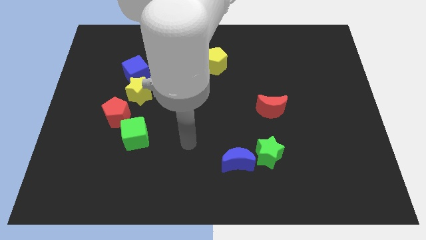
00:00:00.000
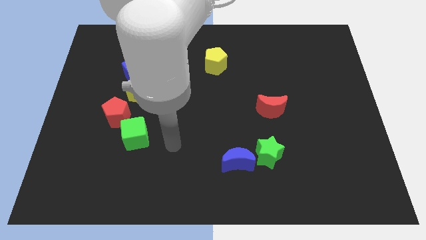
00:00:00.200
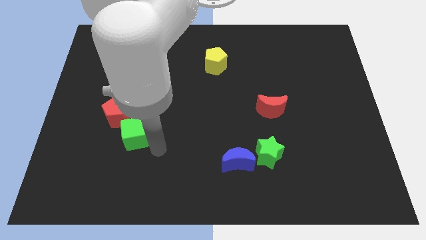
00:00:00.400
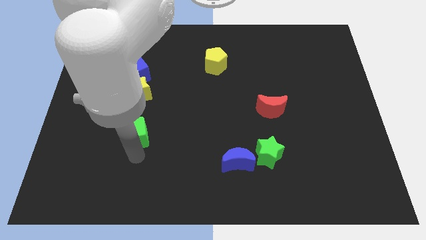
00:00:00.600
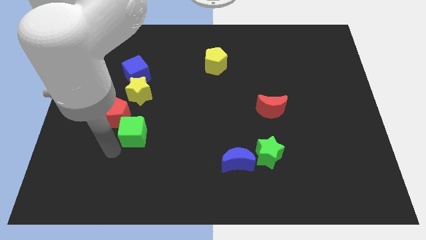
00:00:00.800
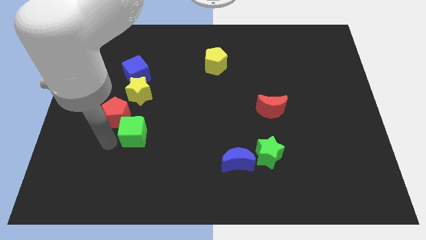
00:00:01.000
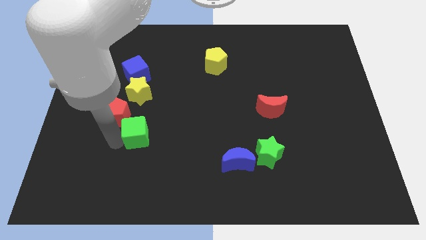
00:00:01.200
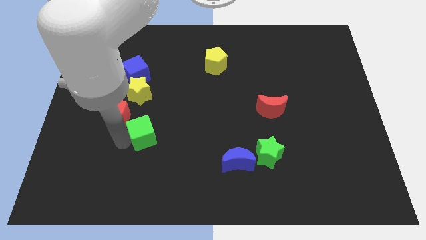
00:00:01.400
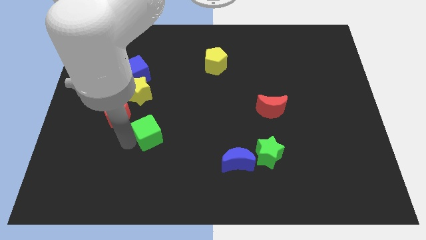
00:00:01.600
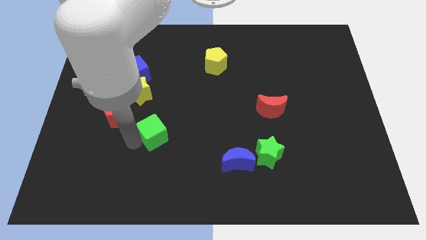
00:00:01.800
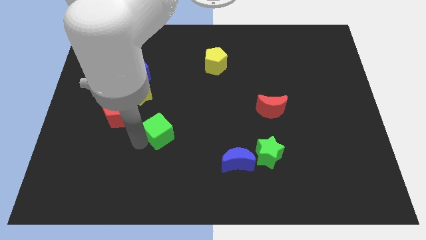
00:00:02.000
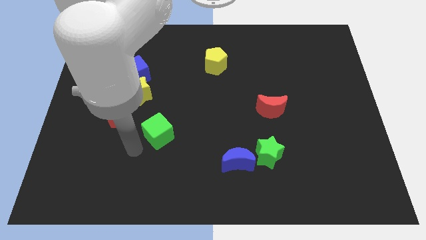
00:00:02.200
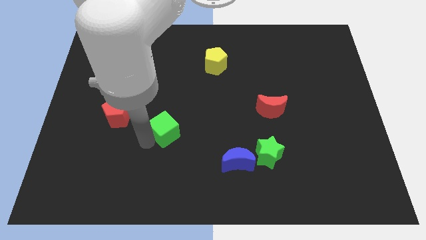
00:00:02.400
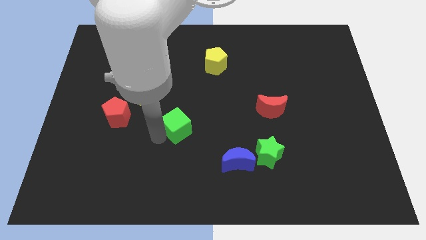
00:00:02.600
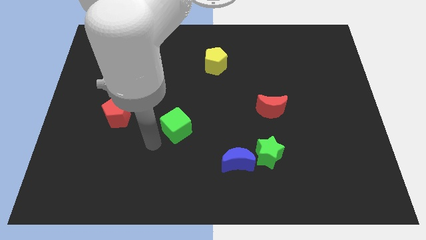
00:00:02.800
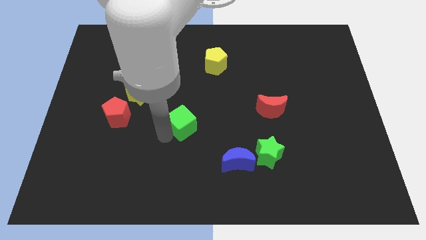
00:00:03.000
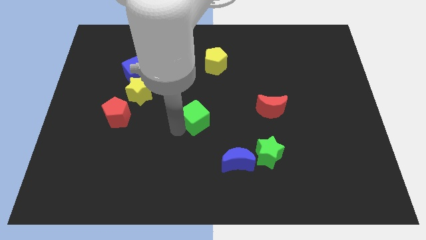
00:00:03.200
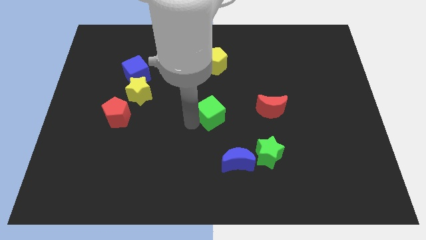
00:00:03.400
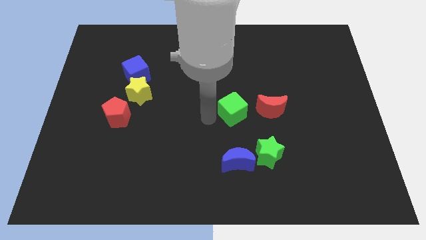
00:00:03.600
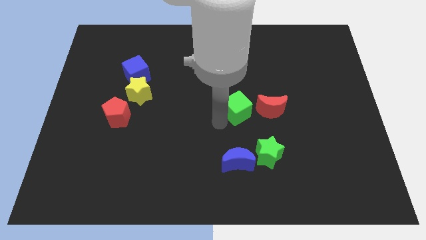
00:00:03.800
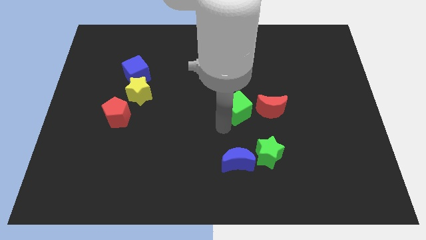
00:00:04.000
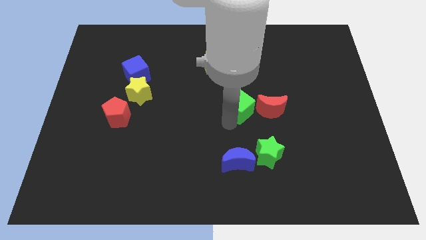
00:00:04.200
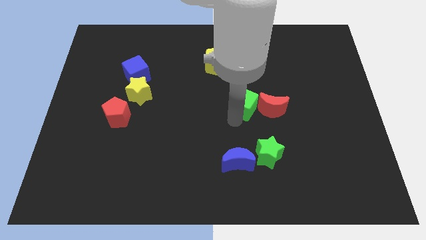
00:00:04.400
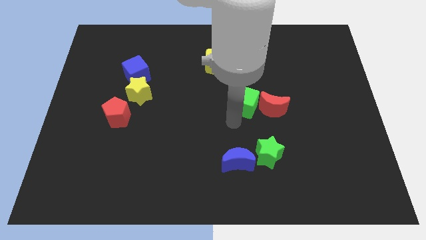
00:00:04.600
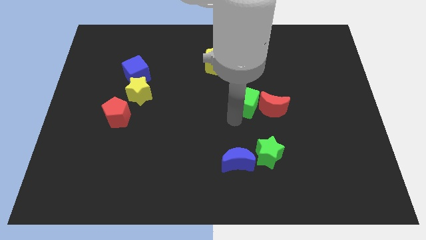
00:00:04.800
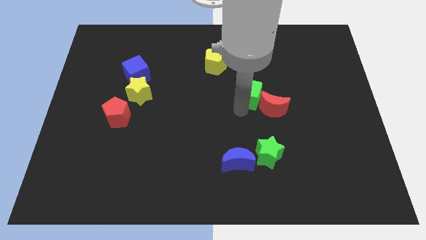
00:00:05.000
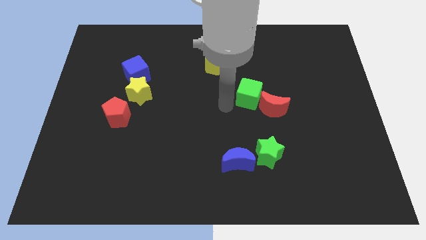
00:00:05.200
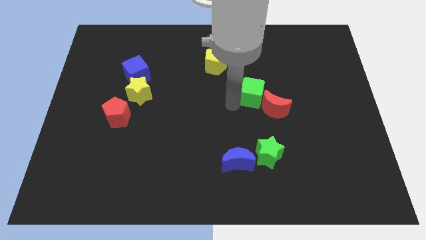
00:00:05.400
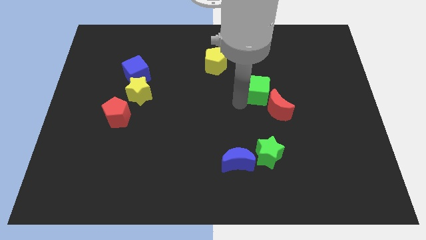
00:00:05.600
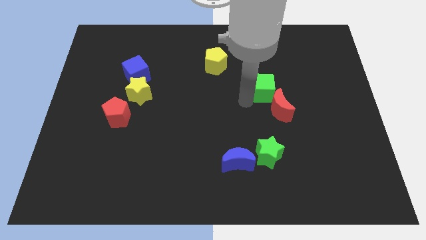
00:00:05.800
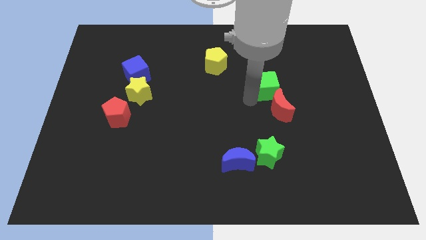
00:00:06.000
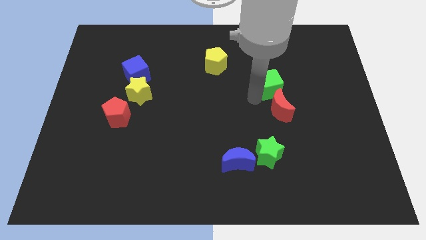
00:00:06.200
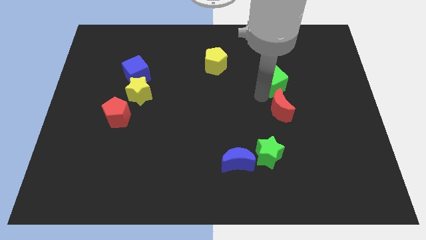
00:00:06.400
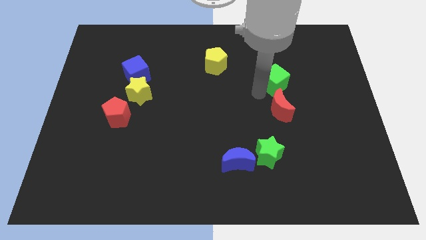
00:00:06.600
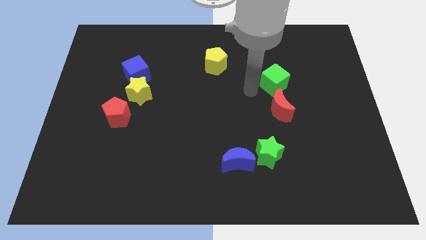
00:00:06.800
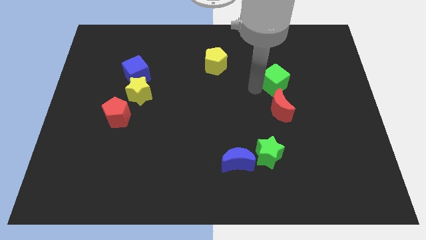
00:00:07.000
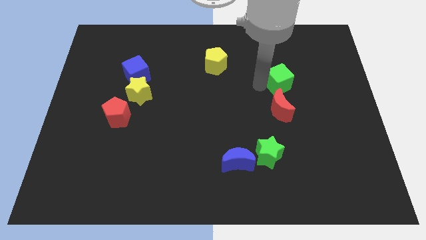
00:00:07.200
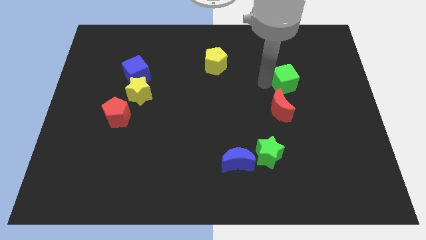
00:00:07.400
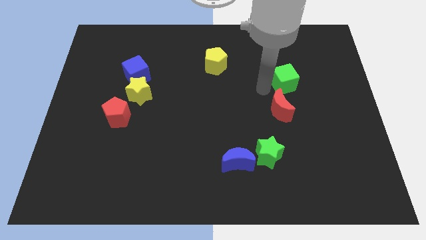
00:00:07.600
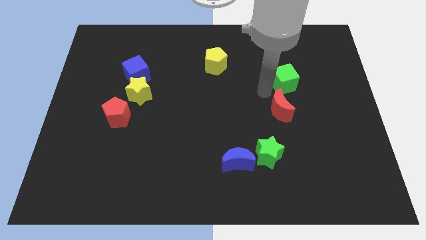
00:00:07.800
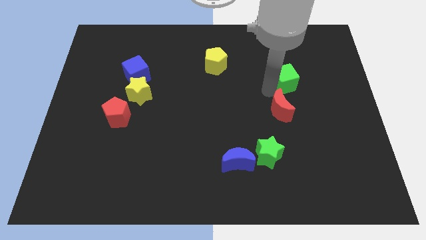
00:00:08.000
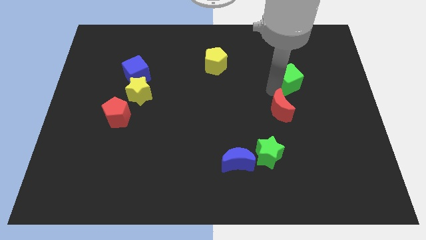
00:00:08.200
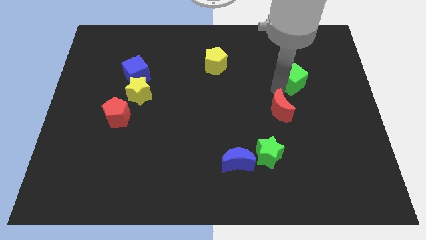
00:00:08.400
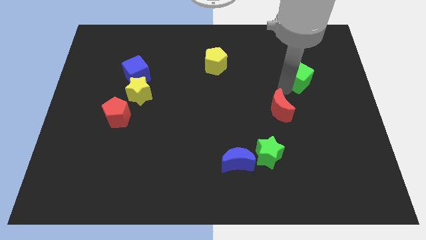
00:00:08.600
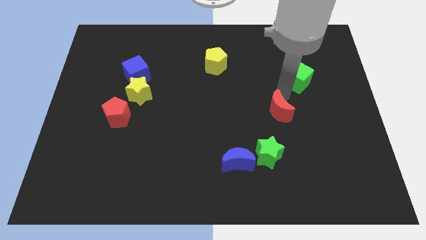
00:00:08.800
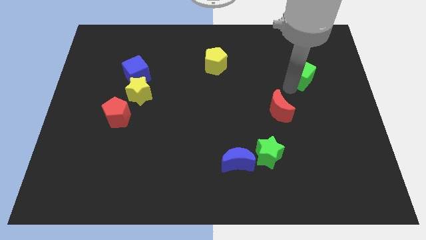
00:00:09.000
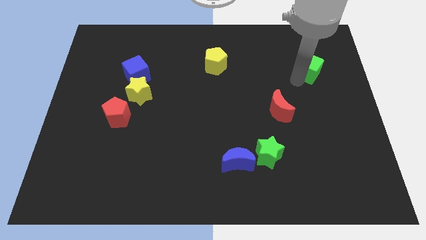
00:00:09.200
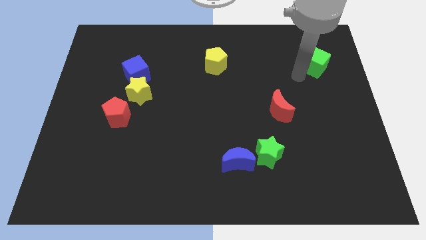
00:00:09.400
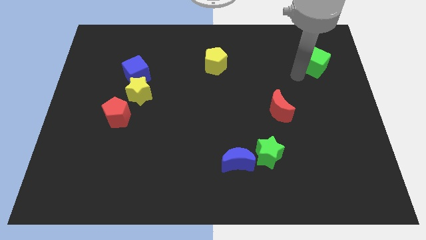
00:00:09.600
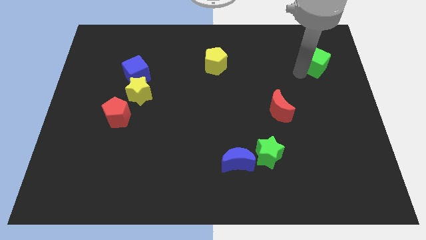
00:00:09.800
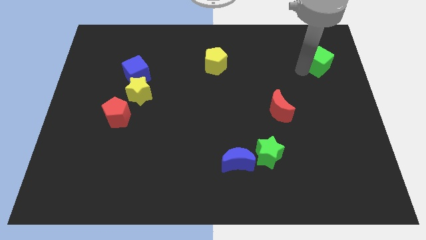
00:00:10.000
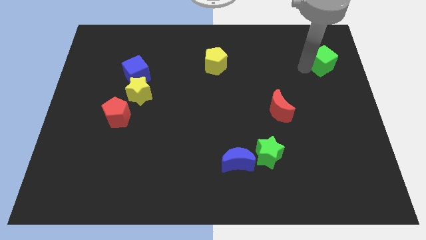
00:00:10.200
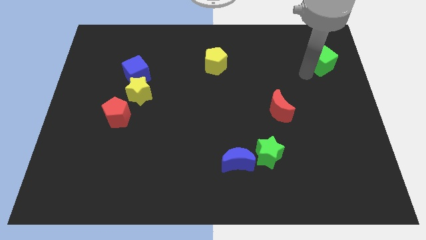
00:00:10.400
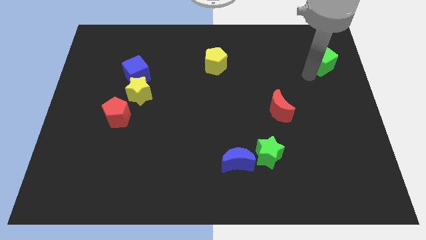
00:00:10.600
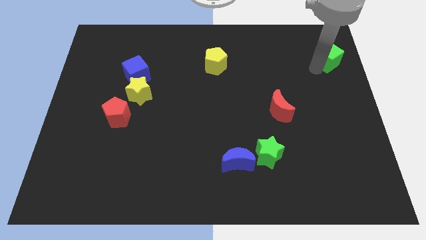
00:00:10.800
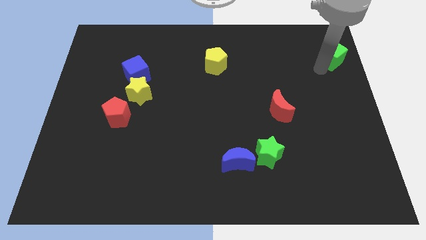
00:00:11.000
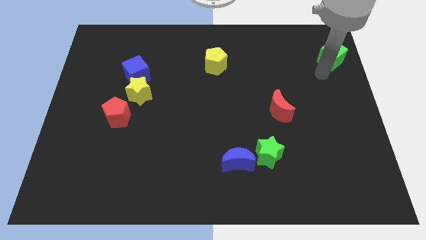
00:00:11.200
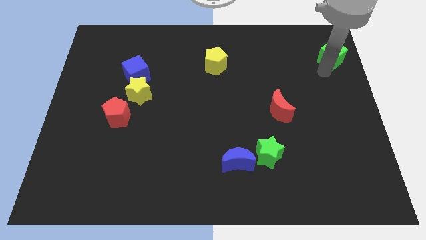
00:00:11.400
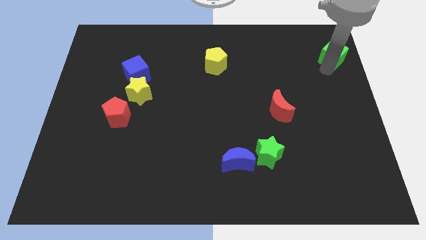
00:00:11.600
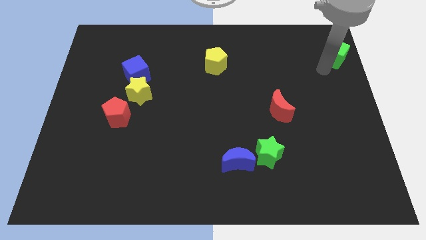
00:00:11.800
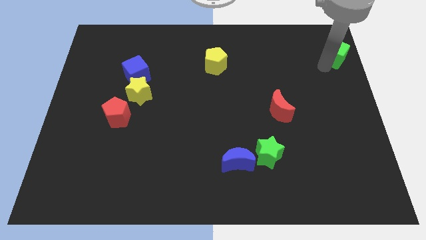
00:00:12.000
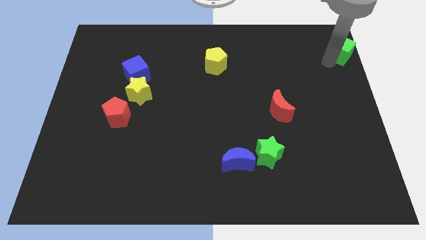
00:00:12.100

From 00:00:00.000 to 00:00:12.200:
put the green cube to the top right of the board
